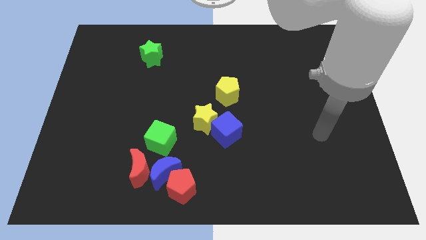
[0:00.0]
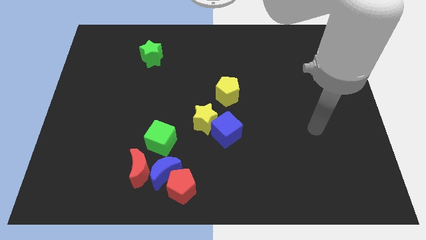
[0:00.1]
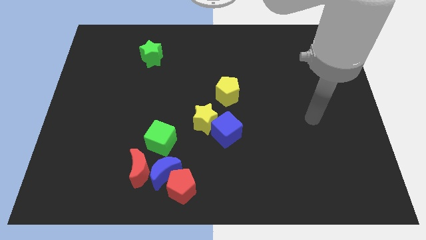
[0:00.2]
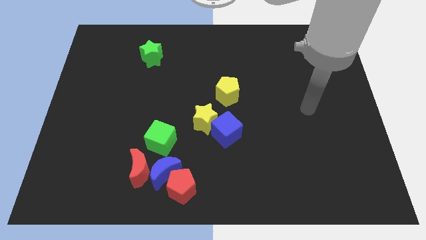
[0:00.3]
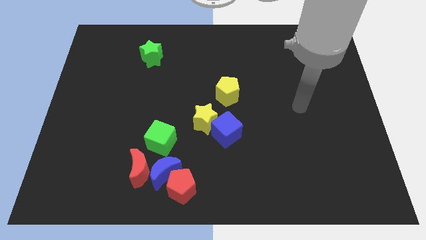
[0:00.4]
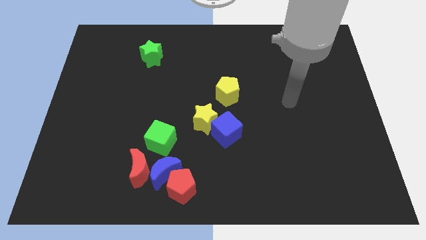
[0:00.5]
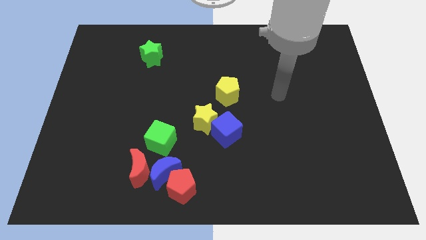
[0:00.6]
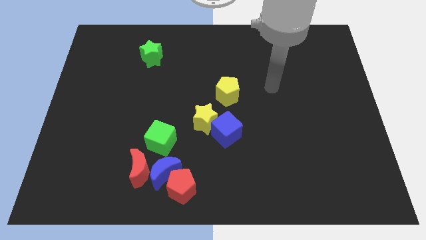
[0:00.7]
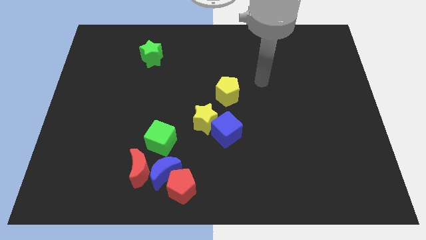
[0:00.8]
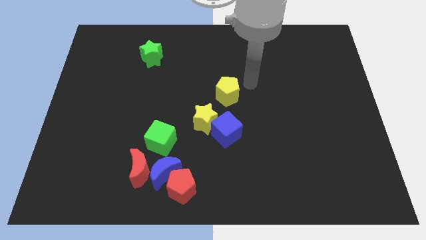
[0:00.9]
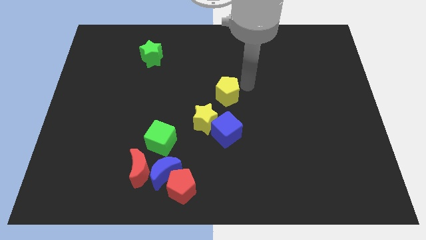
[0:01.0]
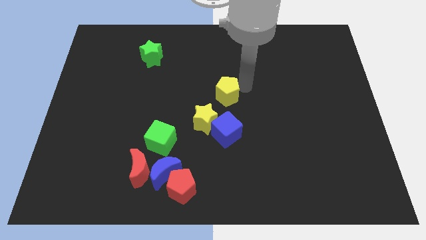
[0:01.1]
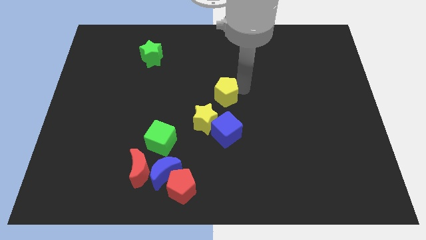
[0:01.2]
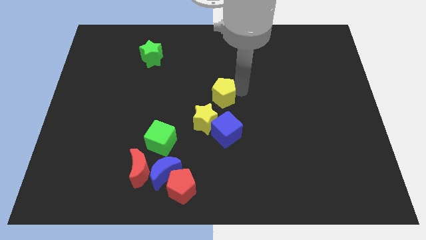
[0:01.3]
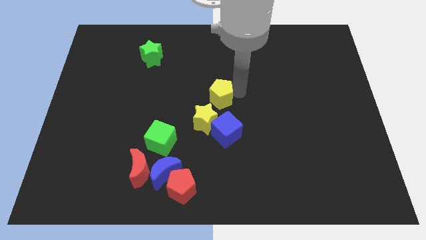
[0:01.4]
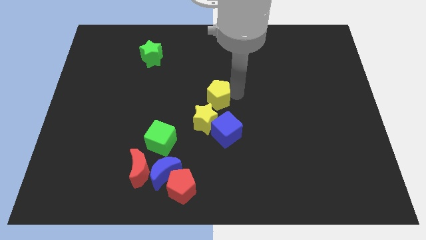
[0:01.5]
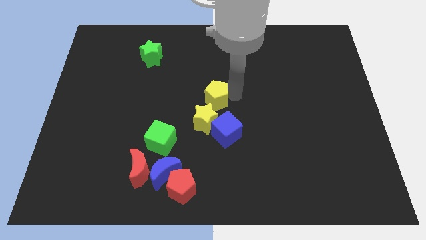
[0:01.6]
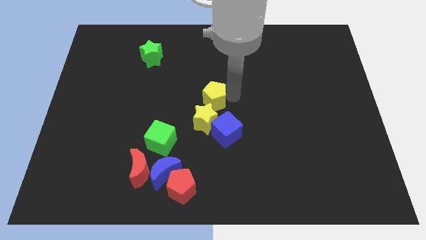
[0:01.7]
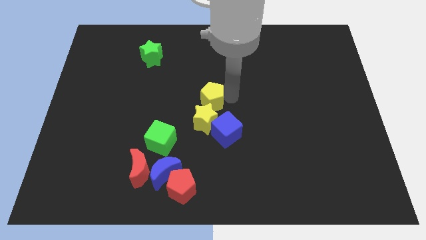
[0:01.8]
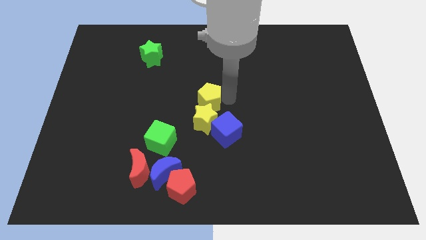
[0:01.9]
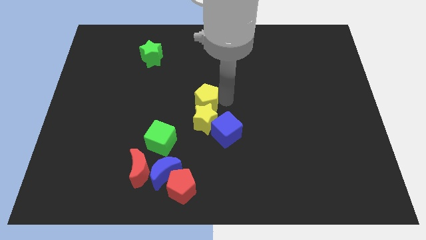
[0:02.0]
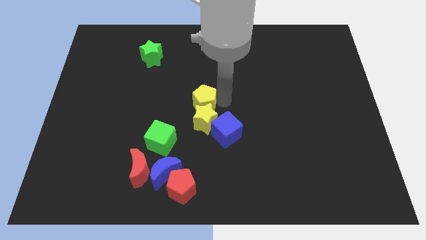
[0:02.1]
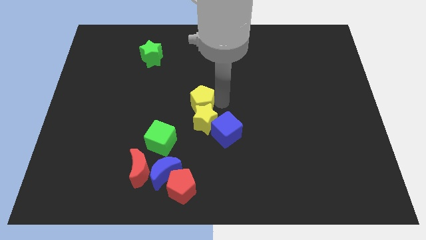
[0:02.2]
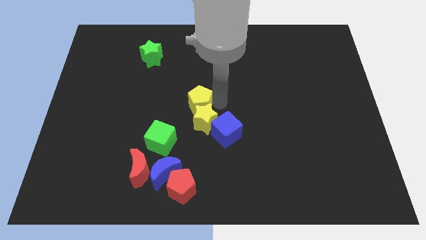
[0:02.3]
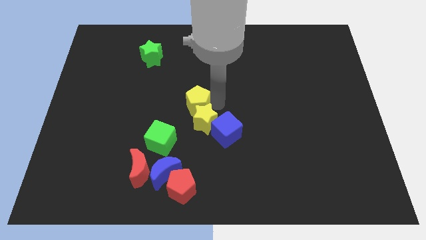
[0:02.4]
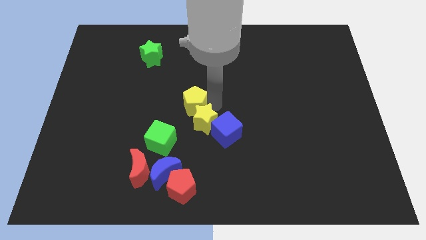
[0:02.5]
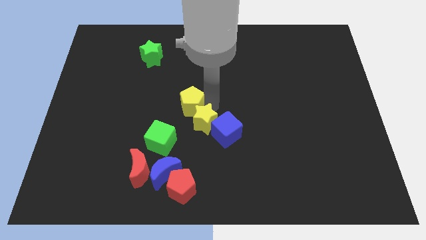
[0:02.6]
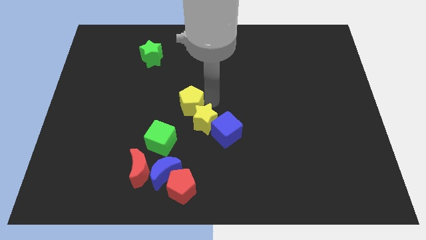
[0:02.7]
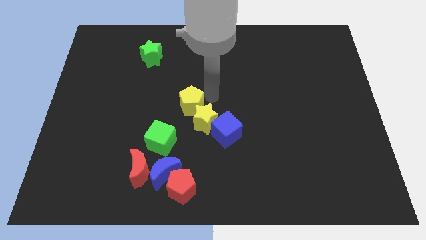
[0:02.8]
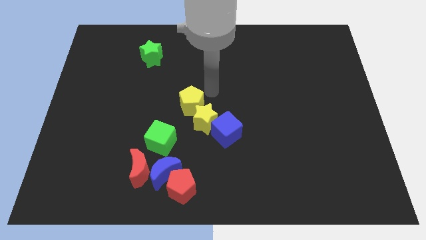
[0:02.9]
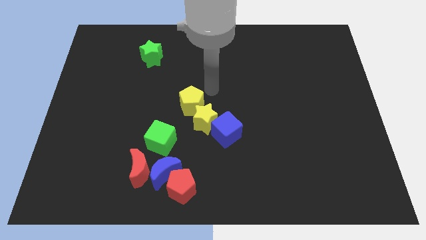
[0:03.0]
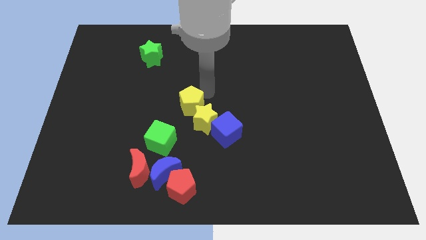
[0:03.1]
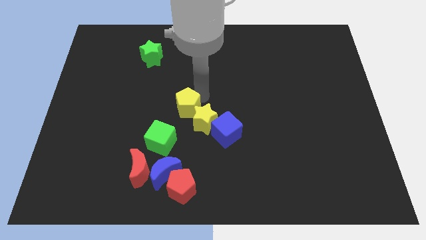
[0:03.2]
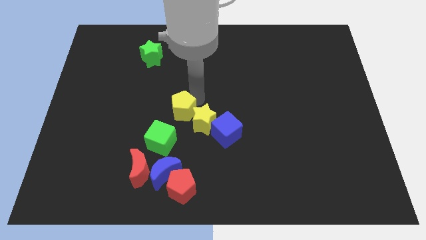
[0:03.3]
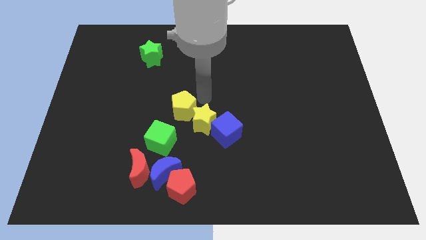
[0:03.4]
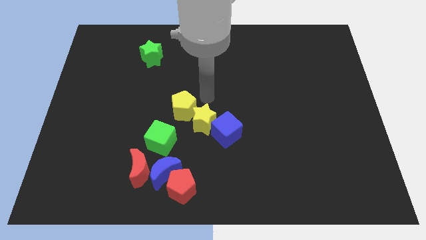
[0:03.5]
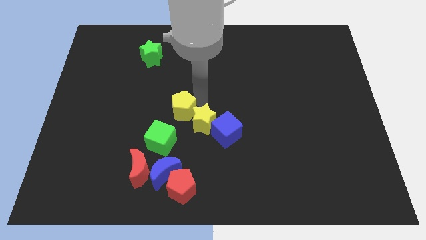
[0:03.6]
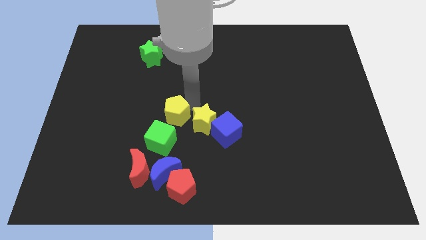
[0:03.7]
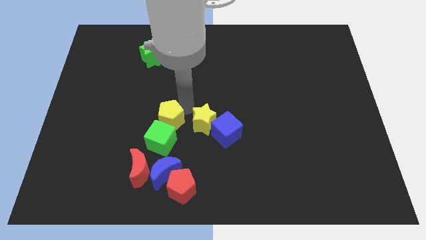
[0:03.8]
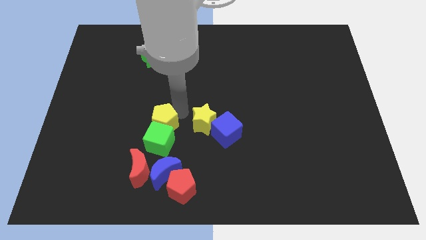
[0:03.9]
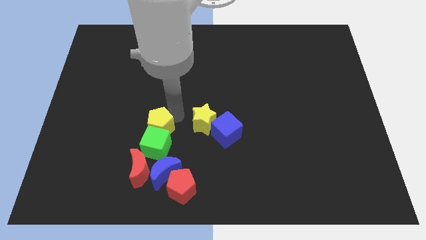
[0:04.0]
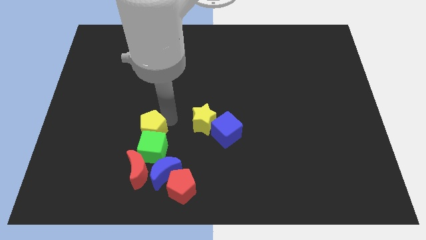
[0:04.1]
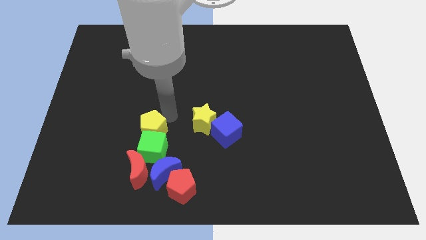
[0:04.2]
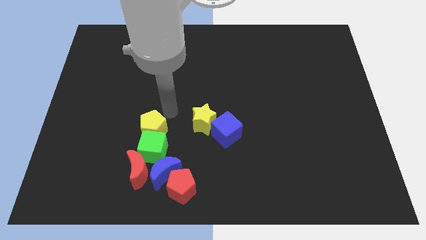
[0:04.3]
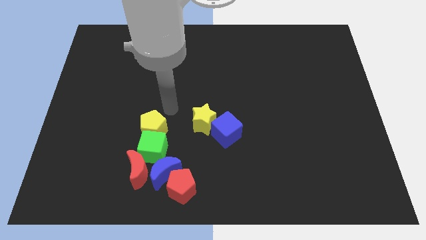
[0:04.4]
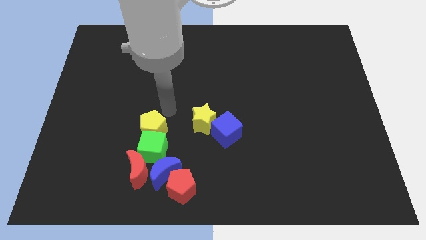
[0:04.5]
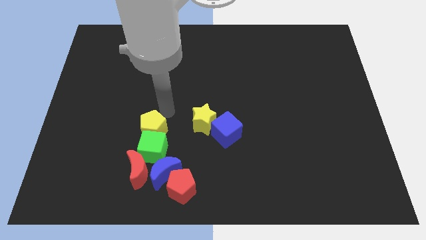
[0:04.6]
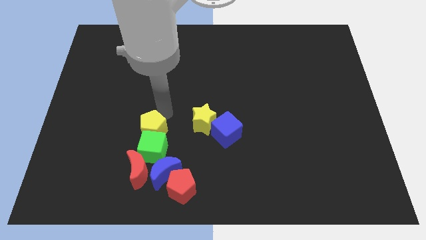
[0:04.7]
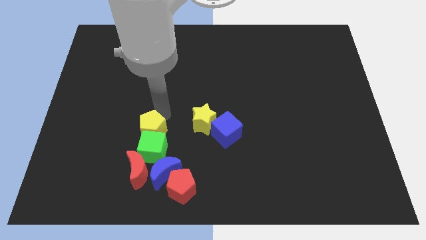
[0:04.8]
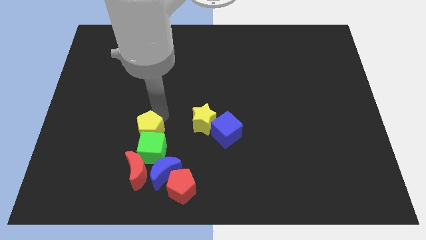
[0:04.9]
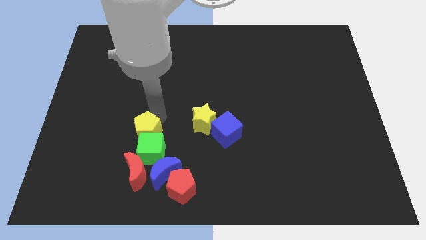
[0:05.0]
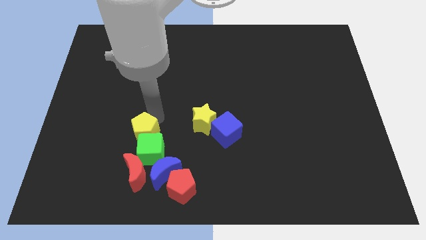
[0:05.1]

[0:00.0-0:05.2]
push the yellow pentagon diagonally down and to the left

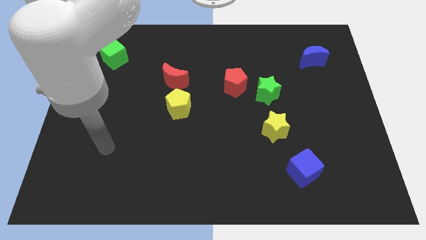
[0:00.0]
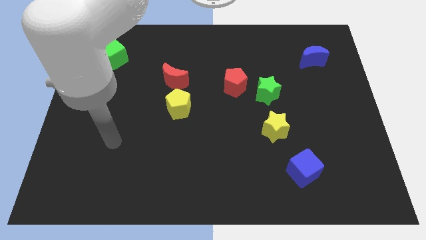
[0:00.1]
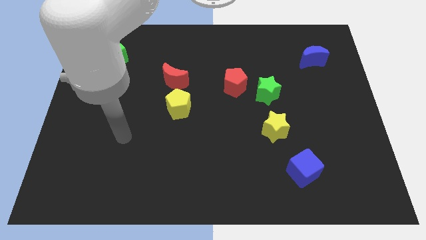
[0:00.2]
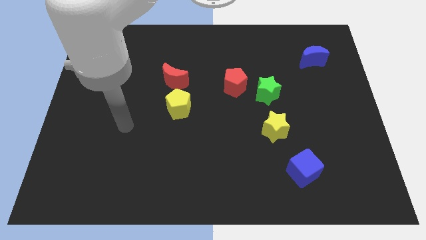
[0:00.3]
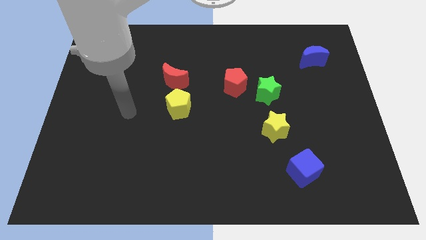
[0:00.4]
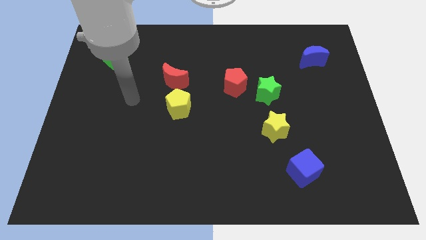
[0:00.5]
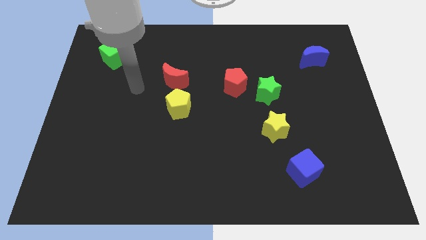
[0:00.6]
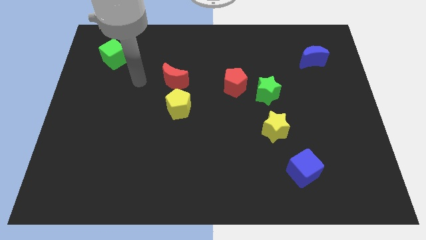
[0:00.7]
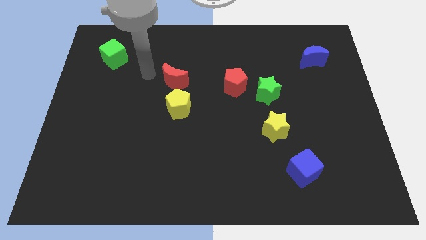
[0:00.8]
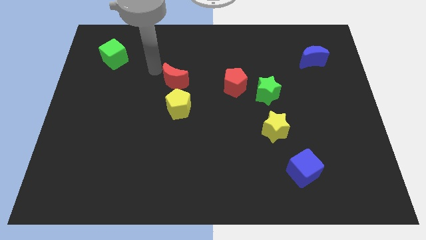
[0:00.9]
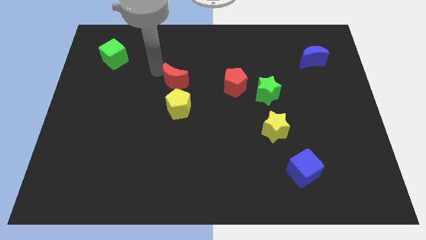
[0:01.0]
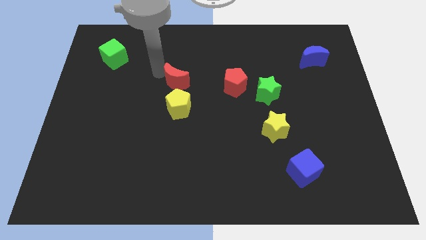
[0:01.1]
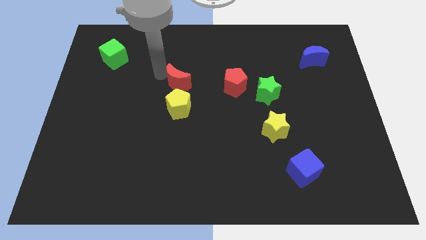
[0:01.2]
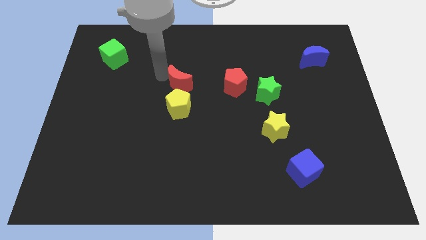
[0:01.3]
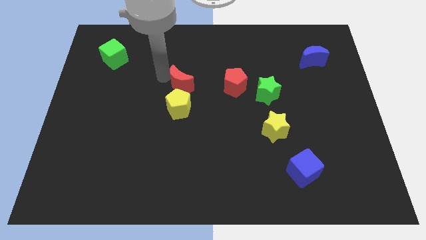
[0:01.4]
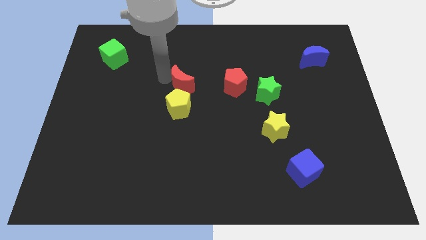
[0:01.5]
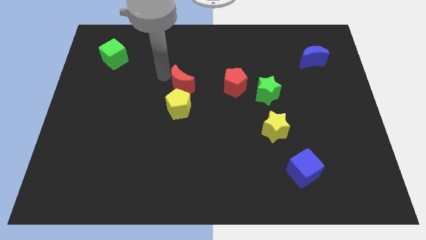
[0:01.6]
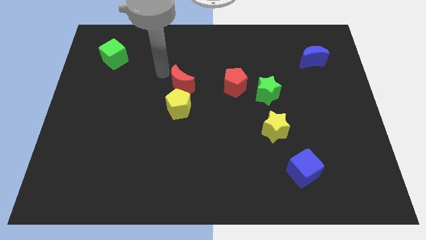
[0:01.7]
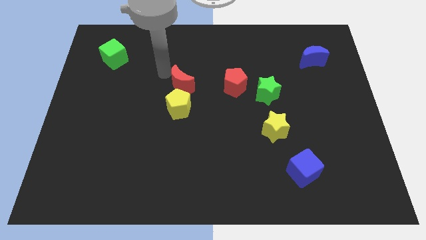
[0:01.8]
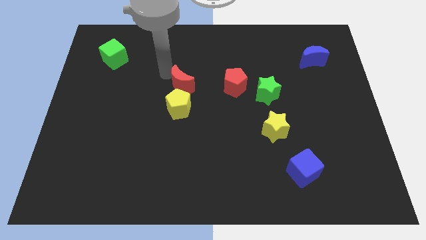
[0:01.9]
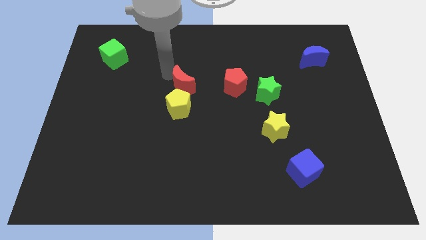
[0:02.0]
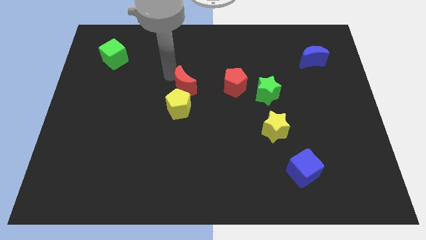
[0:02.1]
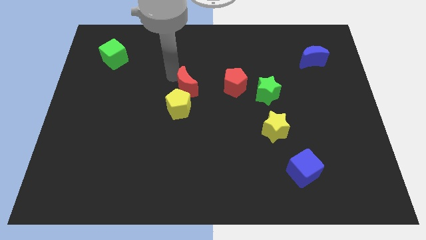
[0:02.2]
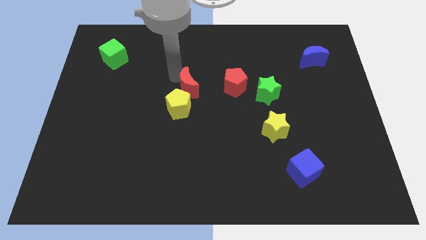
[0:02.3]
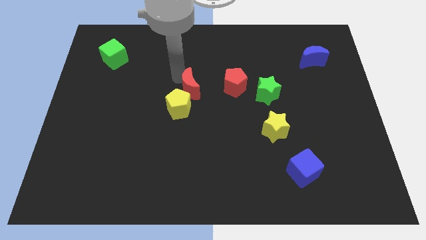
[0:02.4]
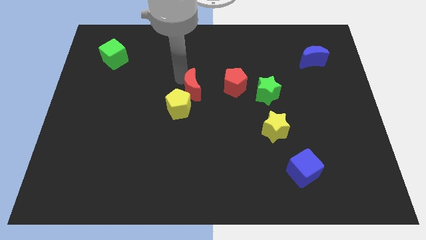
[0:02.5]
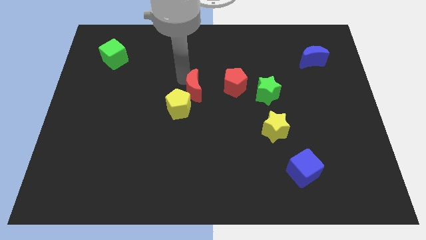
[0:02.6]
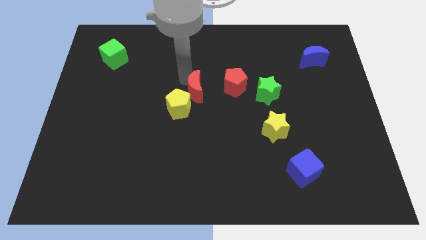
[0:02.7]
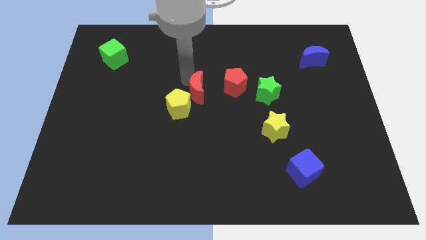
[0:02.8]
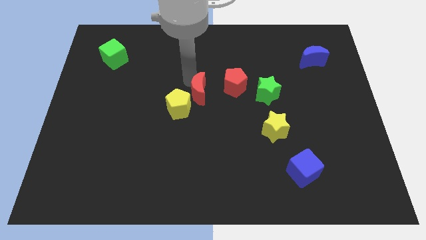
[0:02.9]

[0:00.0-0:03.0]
slightly push the red moon down and right diagonally
